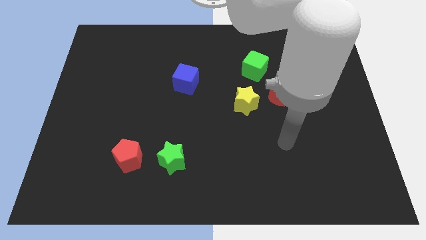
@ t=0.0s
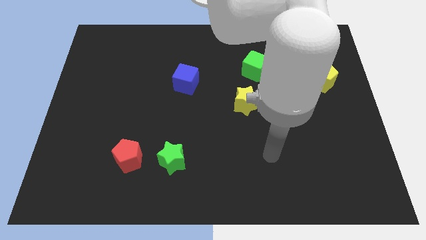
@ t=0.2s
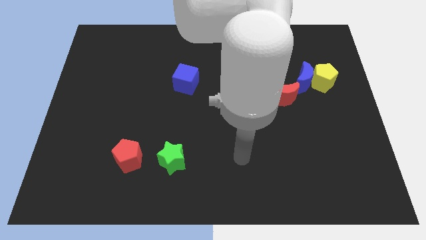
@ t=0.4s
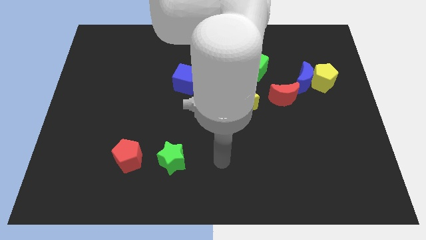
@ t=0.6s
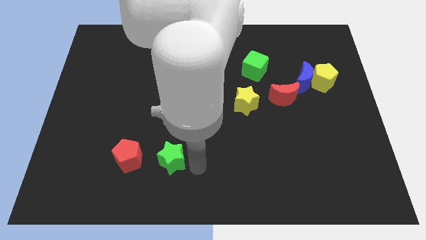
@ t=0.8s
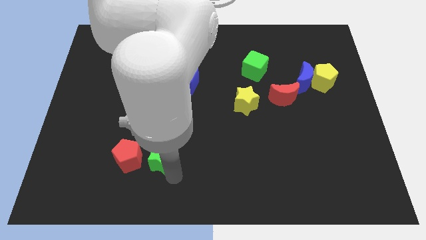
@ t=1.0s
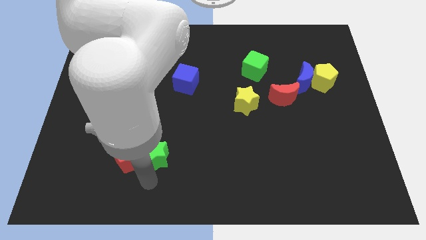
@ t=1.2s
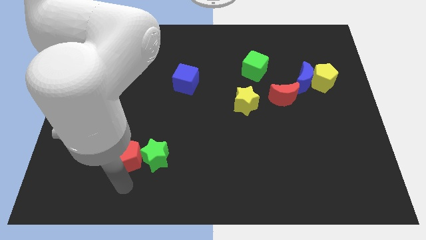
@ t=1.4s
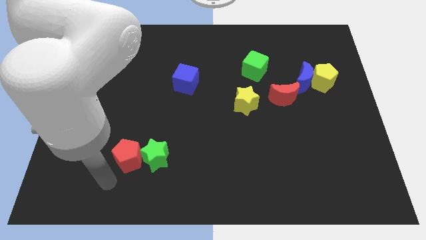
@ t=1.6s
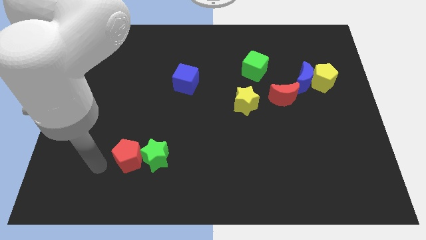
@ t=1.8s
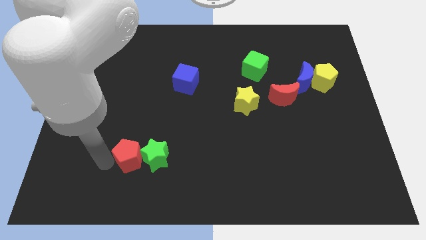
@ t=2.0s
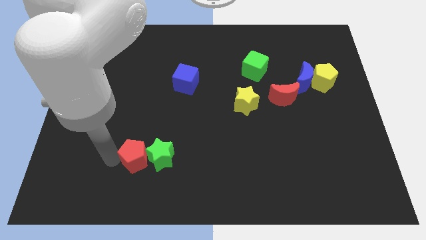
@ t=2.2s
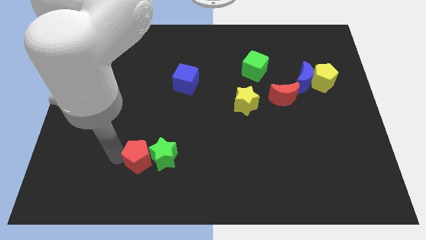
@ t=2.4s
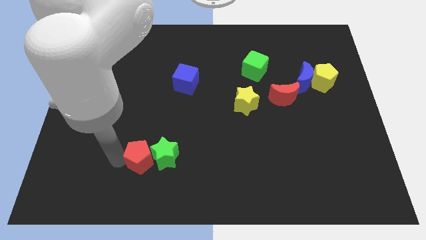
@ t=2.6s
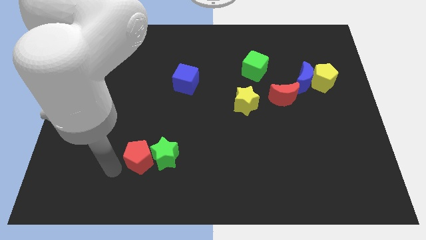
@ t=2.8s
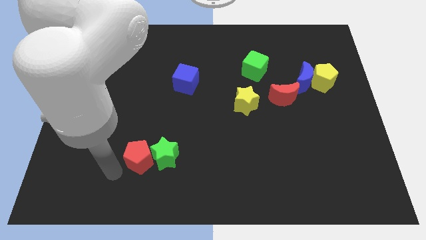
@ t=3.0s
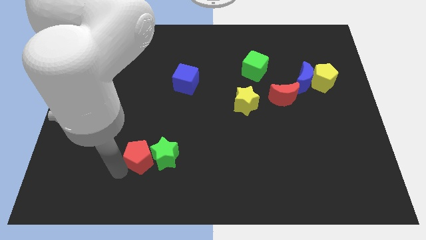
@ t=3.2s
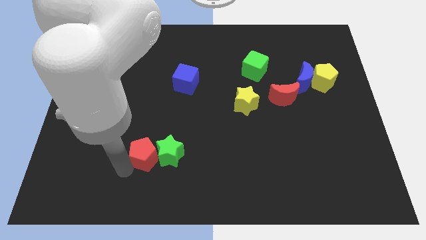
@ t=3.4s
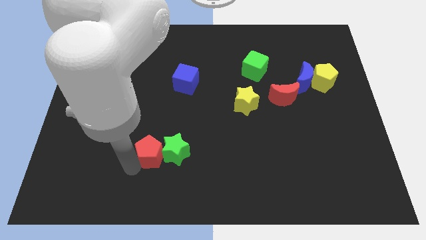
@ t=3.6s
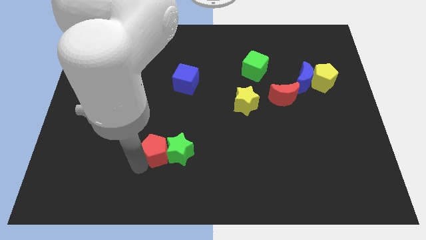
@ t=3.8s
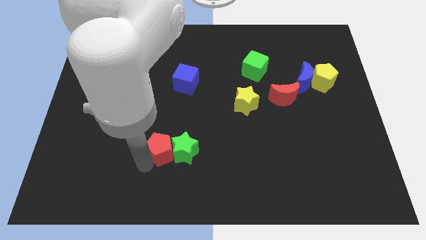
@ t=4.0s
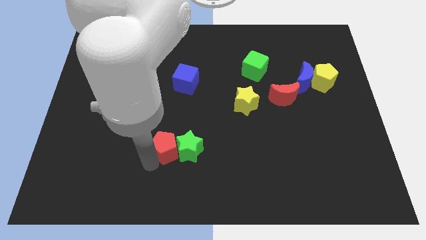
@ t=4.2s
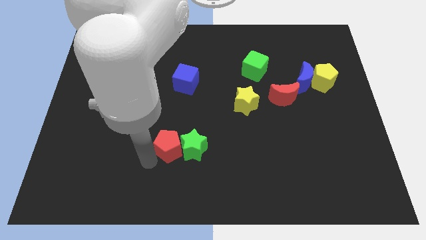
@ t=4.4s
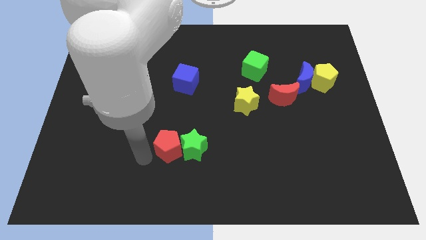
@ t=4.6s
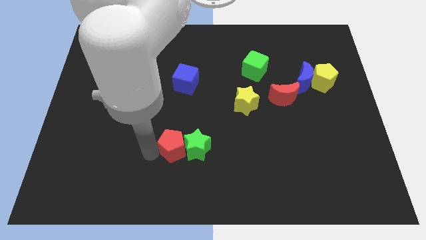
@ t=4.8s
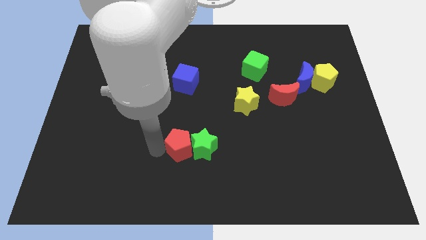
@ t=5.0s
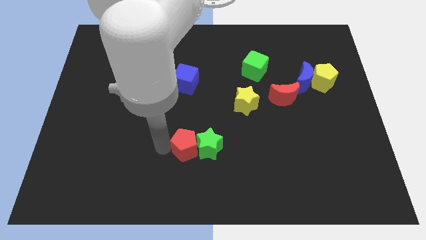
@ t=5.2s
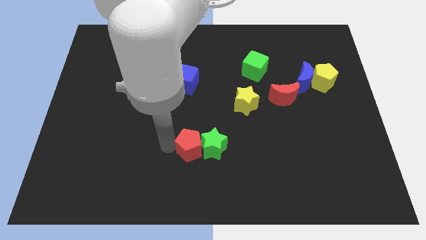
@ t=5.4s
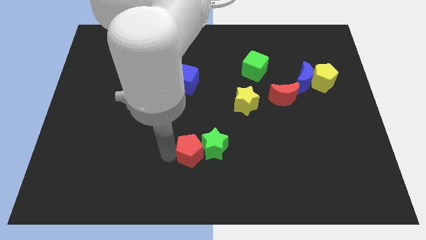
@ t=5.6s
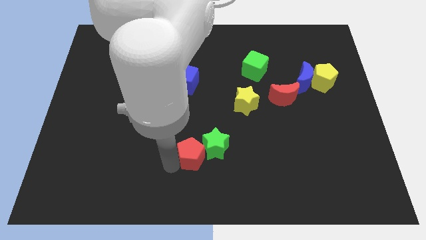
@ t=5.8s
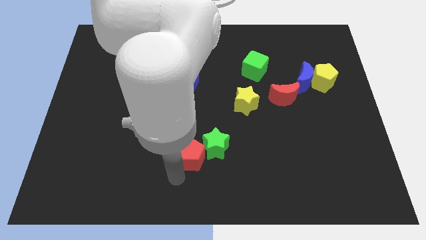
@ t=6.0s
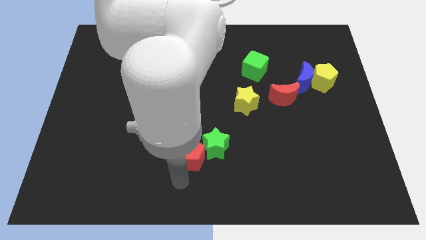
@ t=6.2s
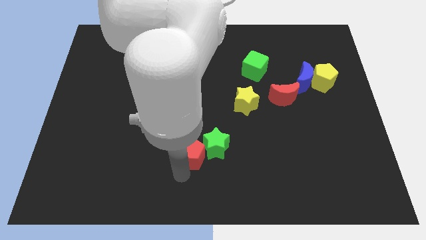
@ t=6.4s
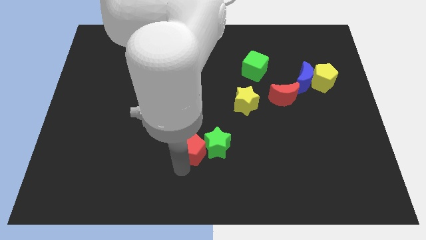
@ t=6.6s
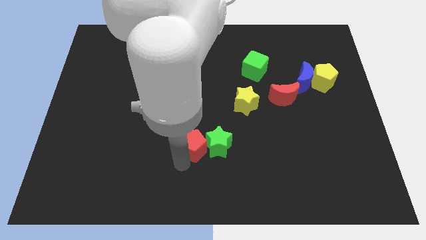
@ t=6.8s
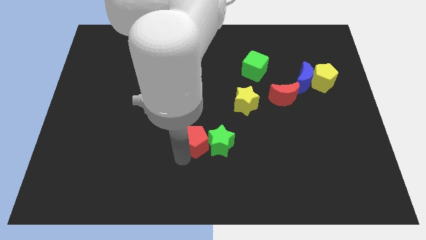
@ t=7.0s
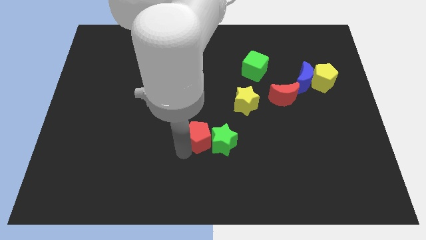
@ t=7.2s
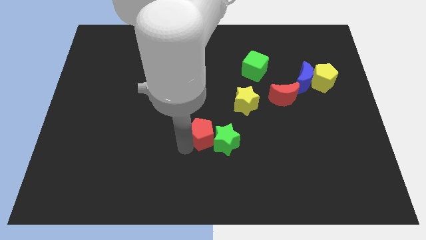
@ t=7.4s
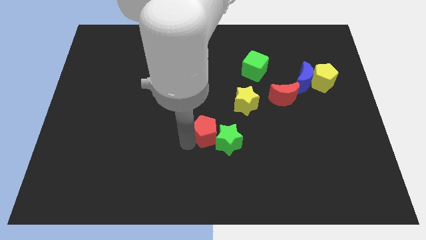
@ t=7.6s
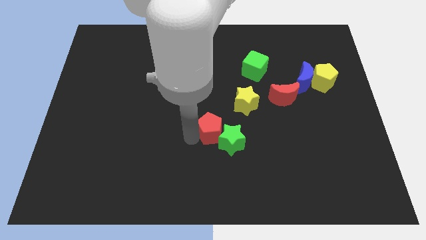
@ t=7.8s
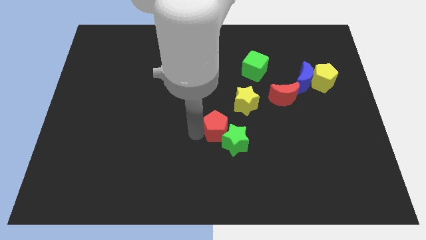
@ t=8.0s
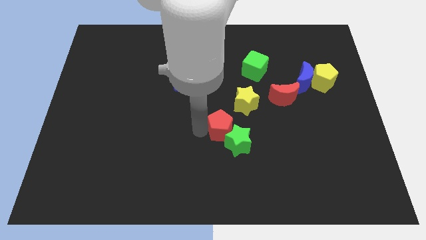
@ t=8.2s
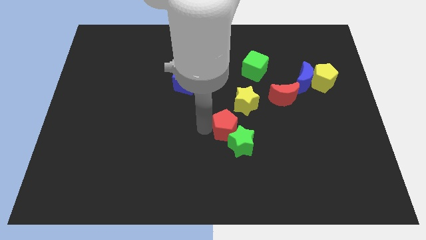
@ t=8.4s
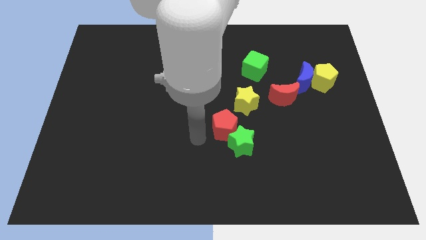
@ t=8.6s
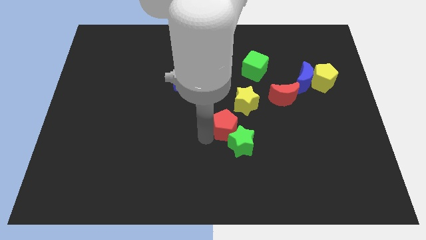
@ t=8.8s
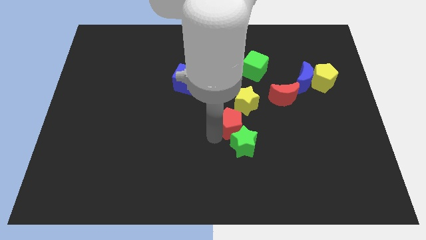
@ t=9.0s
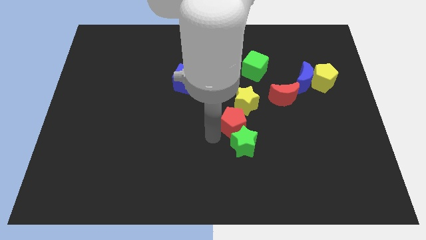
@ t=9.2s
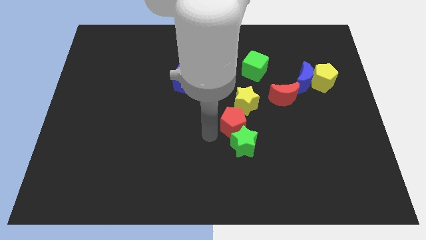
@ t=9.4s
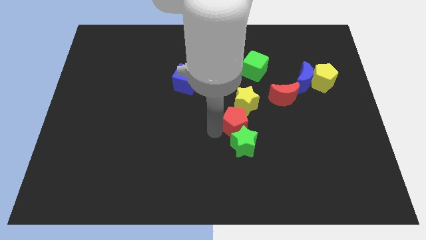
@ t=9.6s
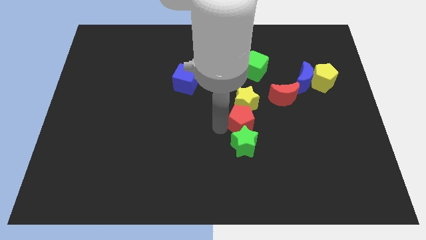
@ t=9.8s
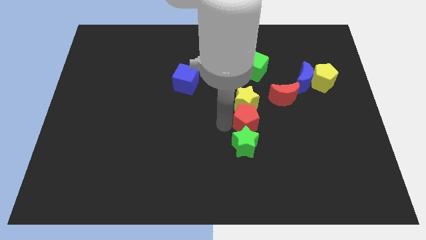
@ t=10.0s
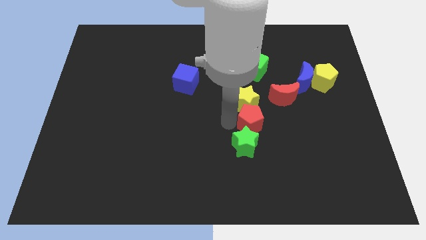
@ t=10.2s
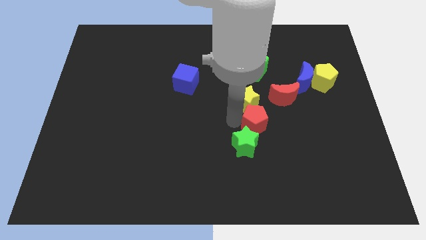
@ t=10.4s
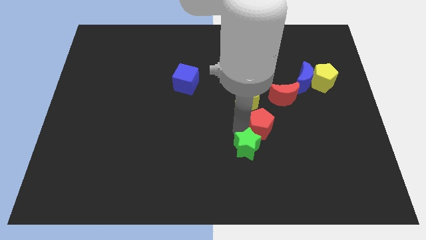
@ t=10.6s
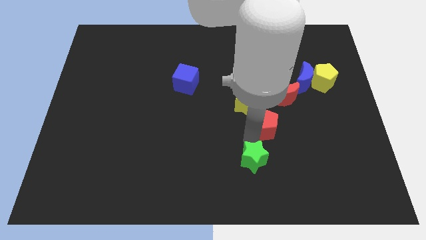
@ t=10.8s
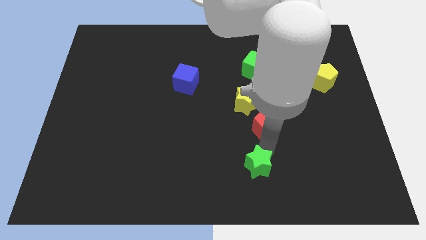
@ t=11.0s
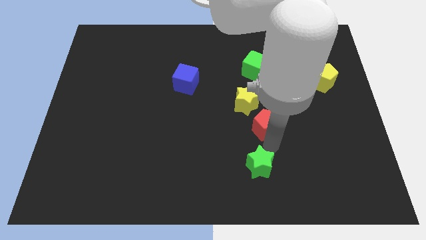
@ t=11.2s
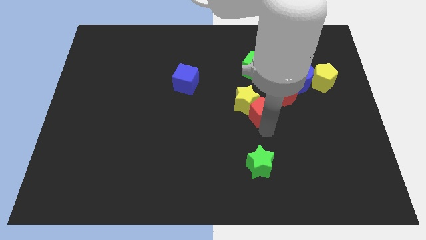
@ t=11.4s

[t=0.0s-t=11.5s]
put the red pentagon to the bottom of the green cube

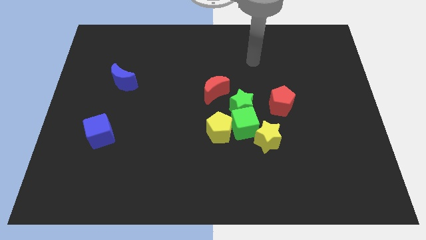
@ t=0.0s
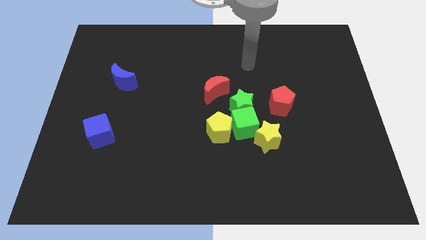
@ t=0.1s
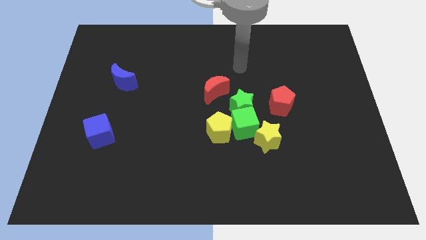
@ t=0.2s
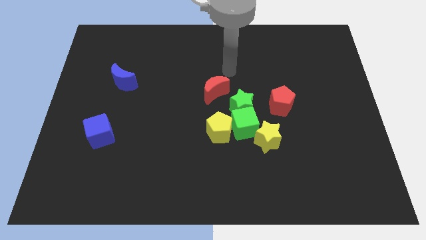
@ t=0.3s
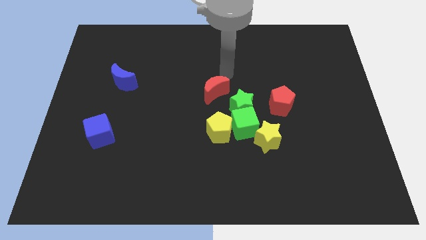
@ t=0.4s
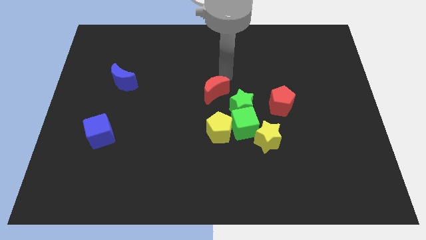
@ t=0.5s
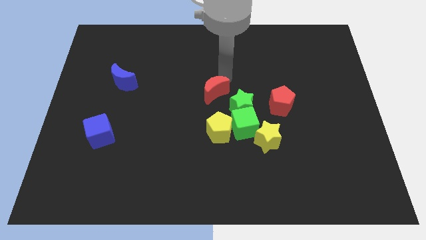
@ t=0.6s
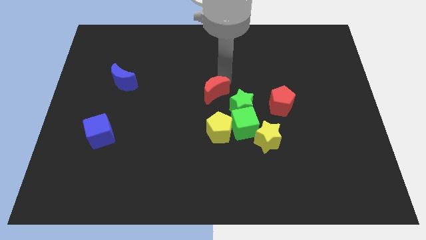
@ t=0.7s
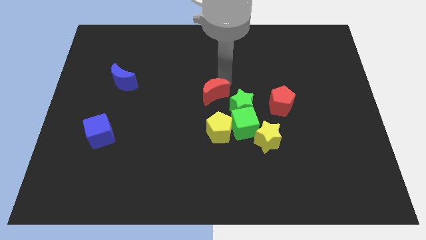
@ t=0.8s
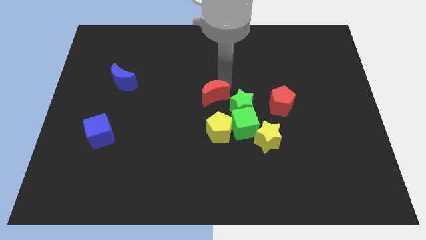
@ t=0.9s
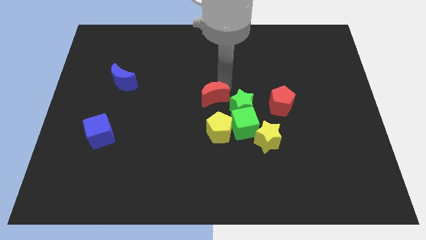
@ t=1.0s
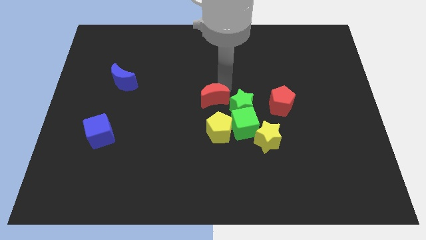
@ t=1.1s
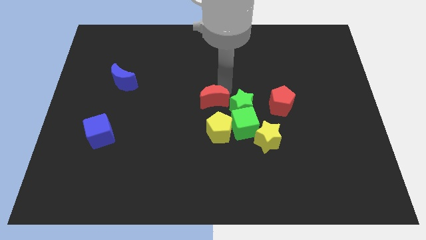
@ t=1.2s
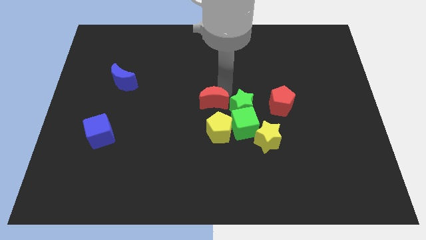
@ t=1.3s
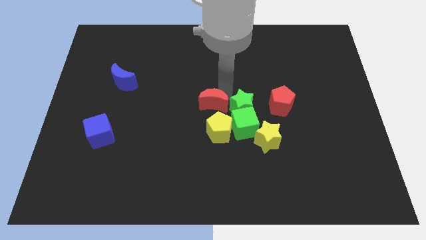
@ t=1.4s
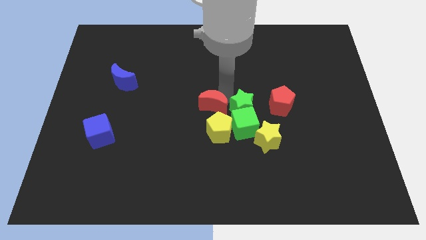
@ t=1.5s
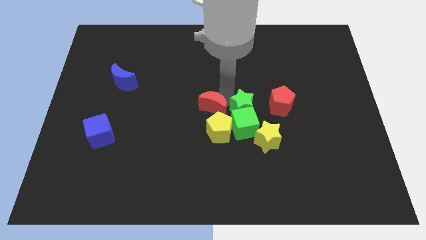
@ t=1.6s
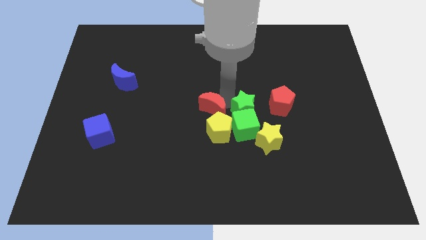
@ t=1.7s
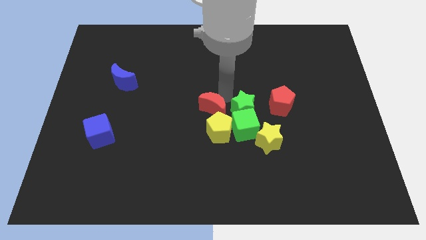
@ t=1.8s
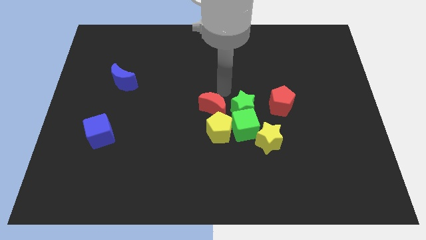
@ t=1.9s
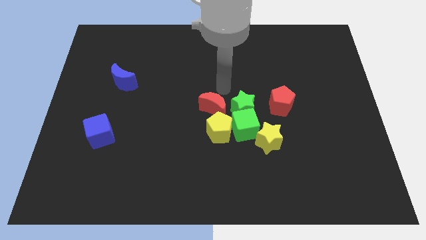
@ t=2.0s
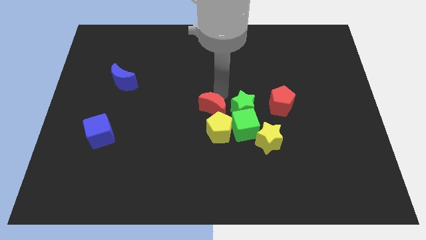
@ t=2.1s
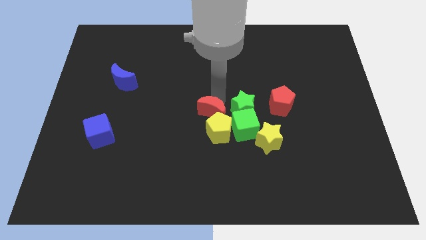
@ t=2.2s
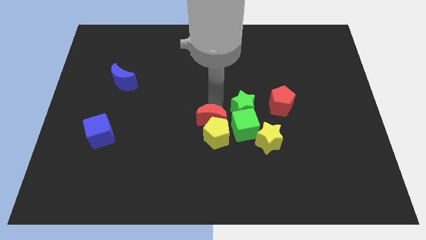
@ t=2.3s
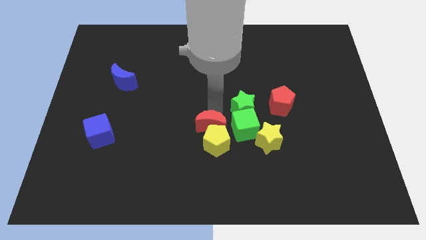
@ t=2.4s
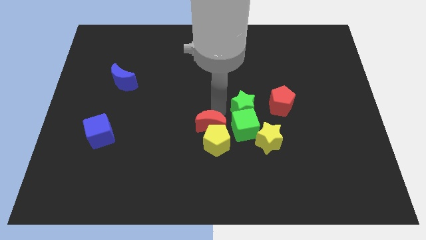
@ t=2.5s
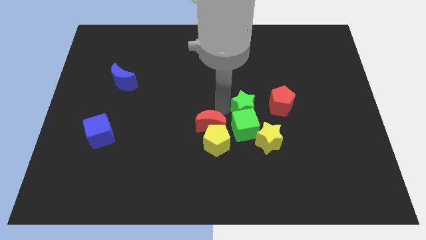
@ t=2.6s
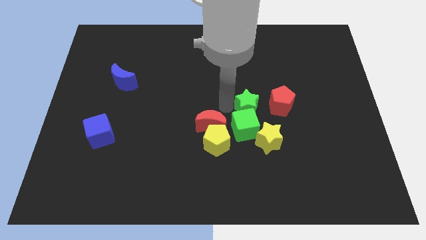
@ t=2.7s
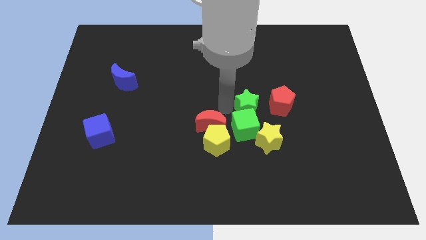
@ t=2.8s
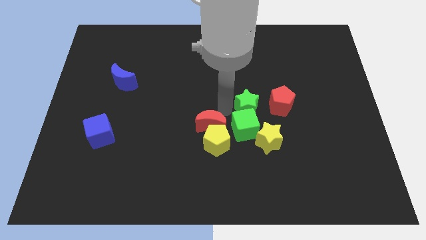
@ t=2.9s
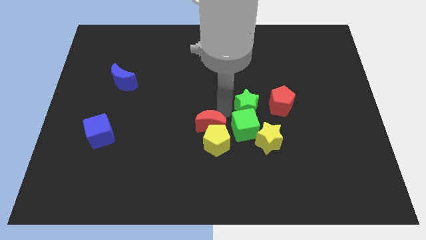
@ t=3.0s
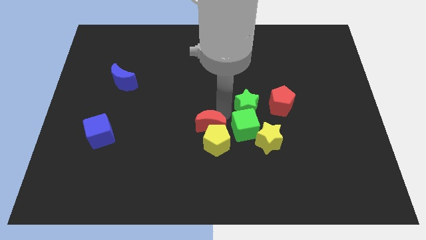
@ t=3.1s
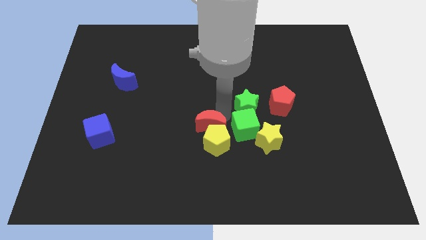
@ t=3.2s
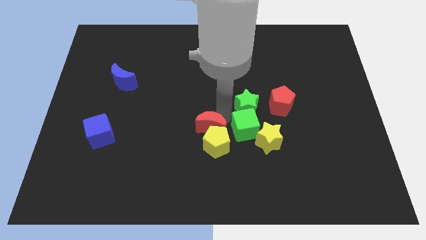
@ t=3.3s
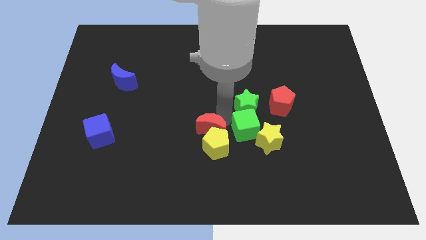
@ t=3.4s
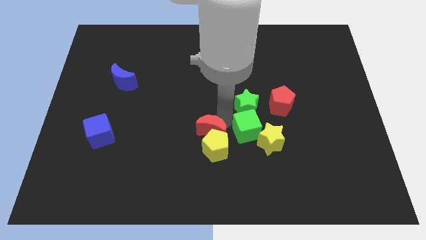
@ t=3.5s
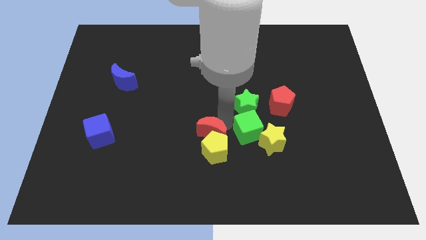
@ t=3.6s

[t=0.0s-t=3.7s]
push the red moon to the bottom left of the green cube
